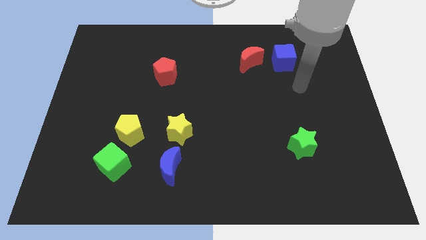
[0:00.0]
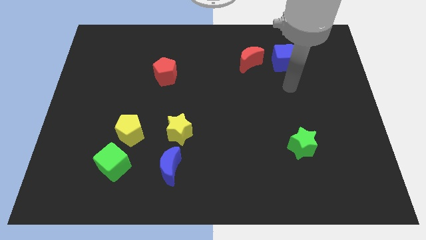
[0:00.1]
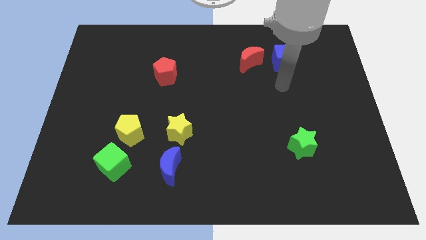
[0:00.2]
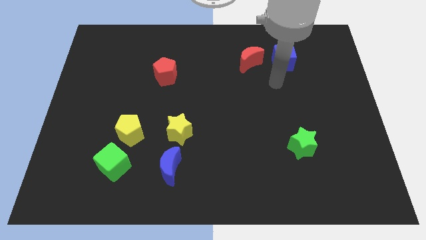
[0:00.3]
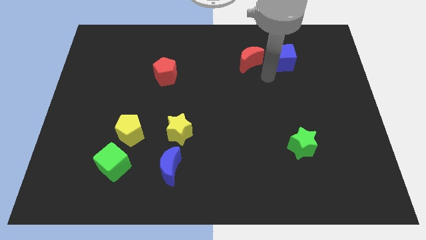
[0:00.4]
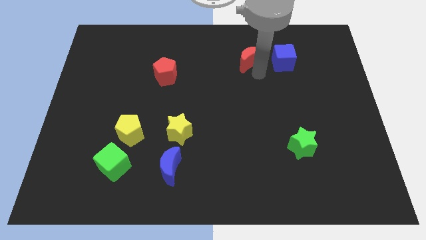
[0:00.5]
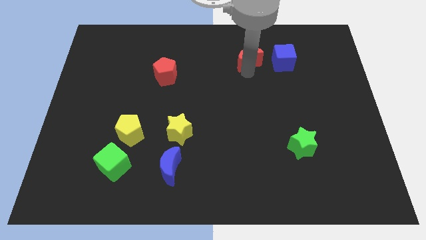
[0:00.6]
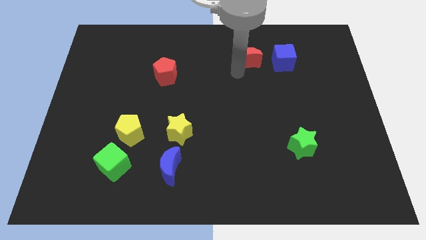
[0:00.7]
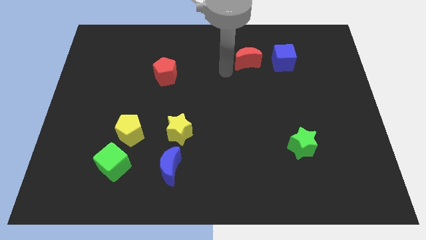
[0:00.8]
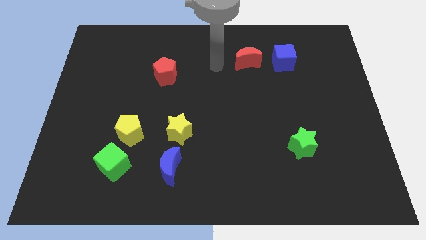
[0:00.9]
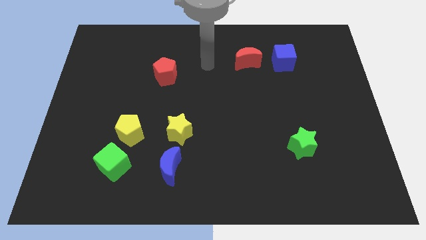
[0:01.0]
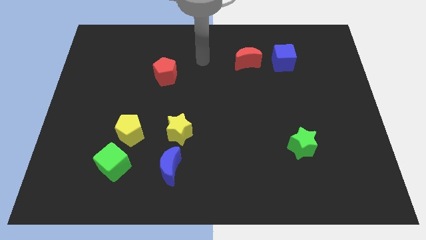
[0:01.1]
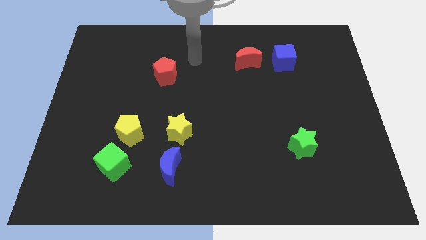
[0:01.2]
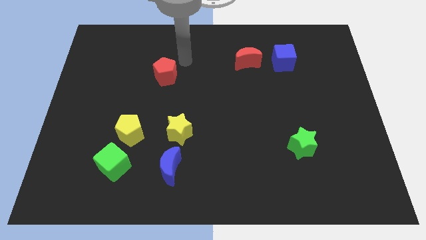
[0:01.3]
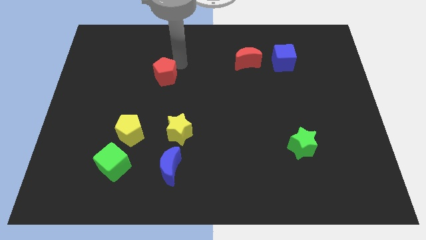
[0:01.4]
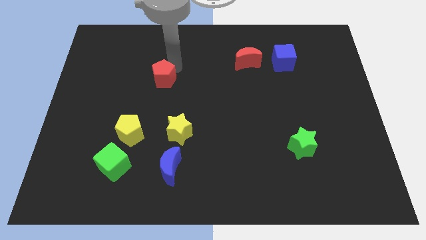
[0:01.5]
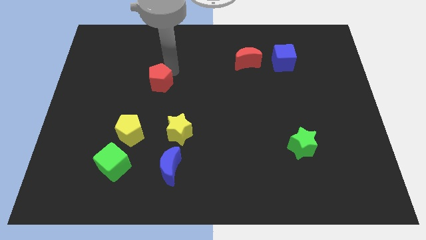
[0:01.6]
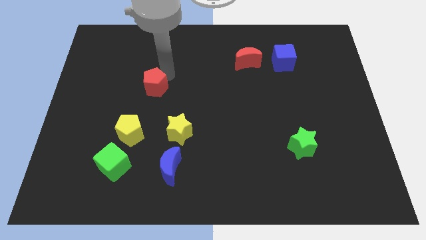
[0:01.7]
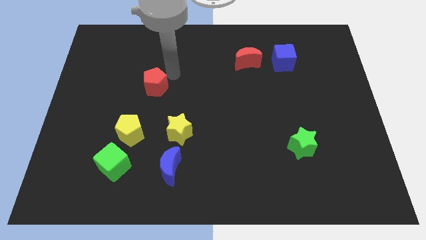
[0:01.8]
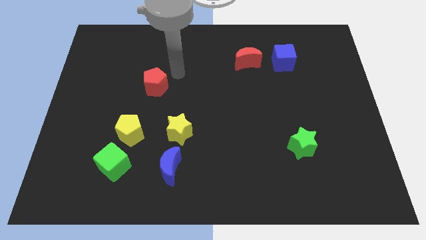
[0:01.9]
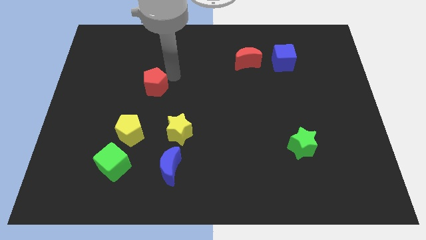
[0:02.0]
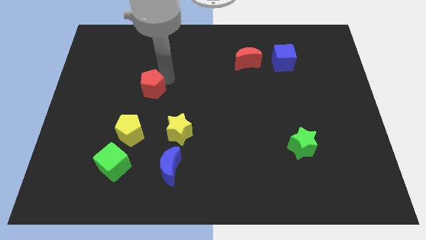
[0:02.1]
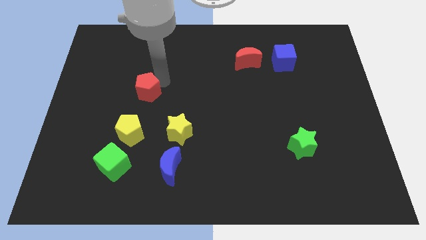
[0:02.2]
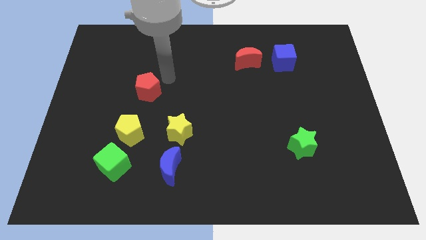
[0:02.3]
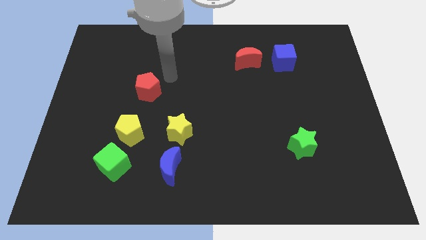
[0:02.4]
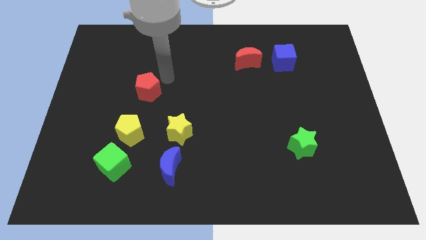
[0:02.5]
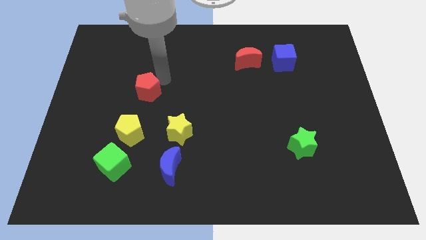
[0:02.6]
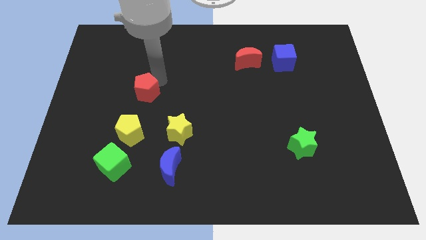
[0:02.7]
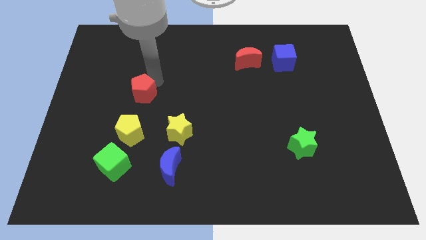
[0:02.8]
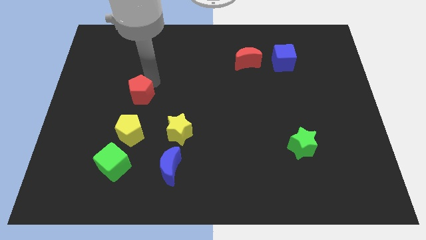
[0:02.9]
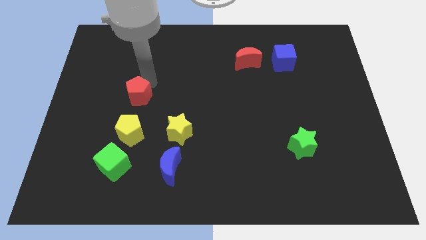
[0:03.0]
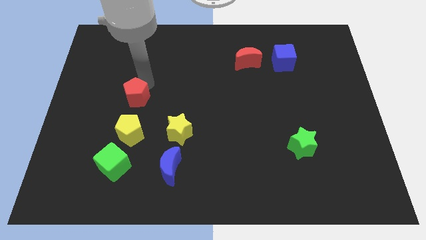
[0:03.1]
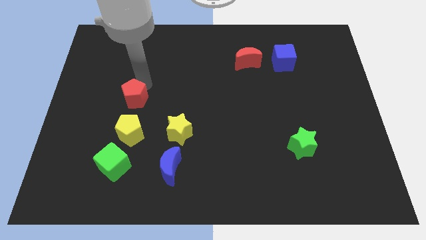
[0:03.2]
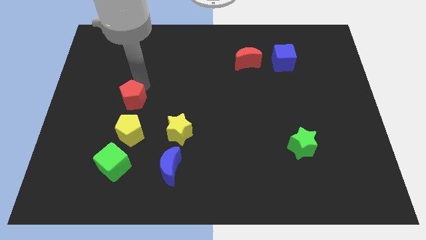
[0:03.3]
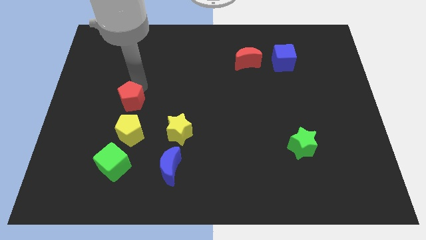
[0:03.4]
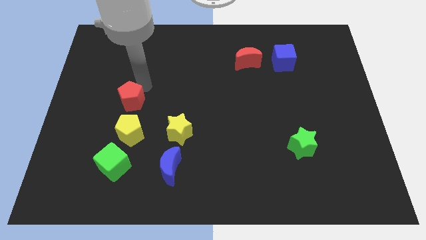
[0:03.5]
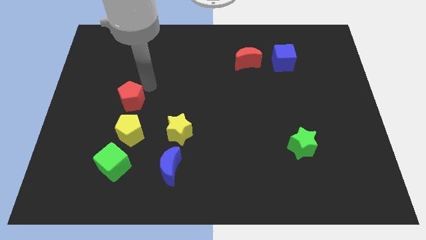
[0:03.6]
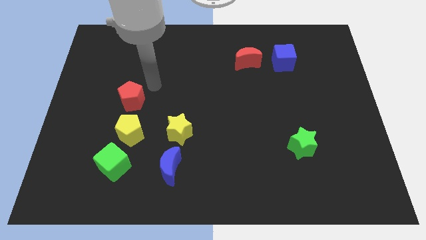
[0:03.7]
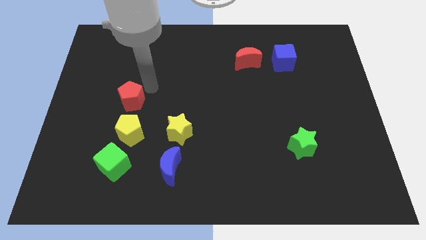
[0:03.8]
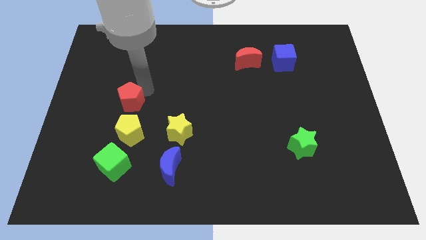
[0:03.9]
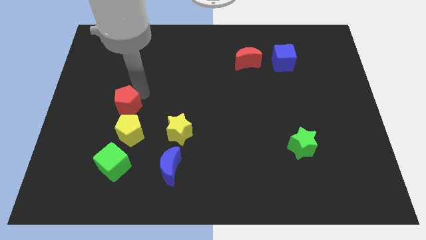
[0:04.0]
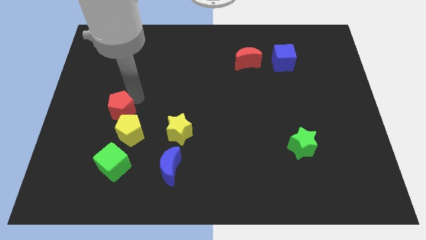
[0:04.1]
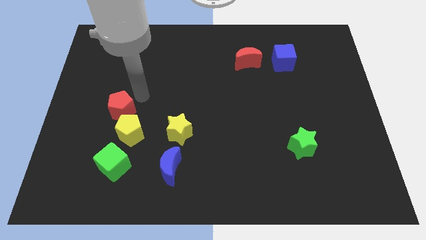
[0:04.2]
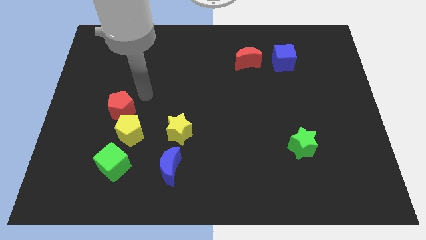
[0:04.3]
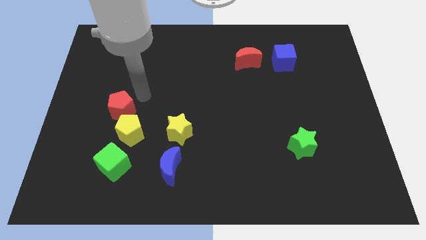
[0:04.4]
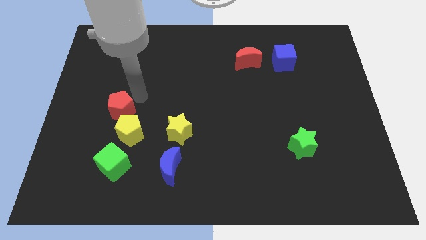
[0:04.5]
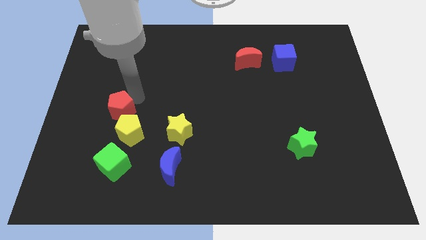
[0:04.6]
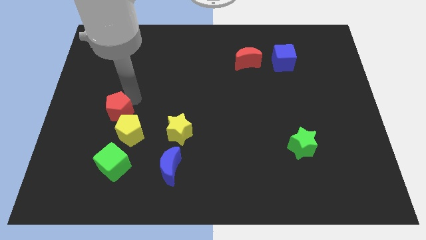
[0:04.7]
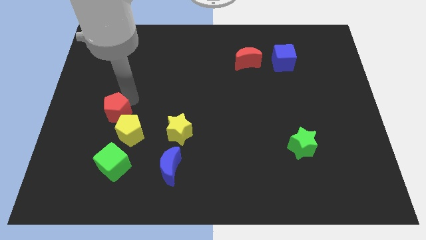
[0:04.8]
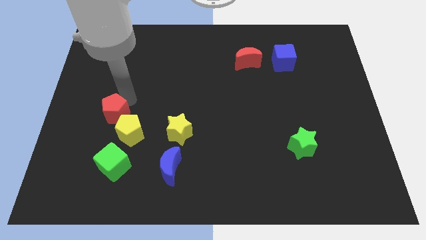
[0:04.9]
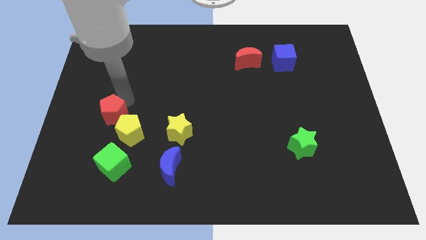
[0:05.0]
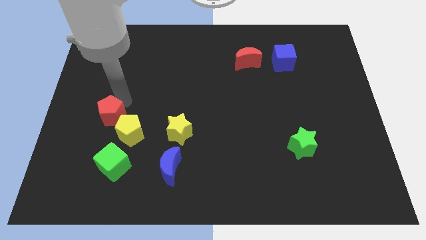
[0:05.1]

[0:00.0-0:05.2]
slide the red pentagon just left of the yellow pentagon

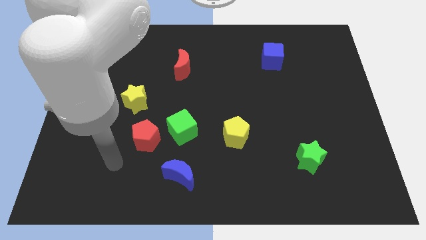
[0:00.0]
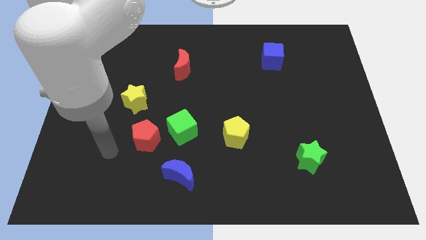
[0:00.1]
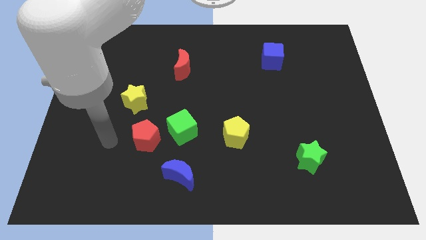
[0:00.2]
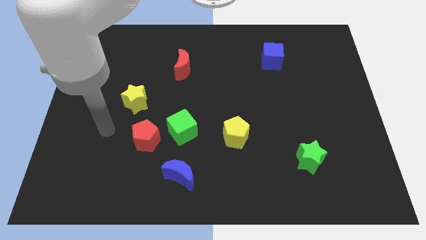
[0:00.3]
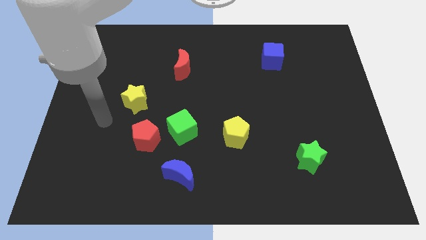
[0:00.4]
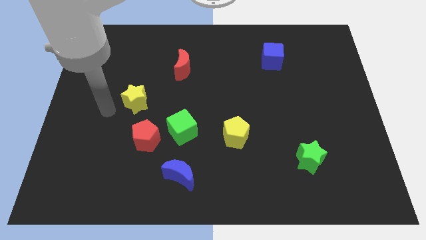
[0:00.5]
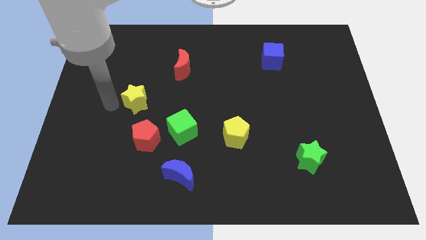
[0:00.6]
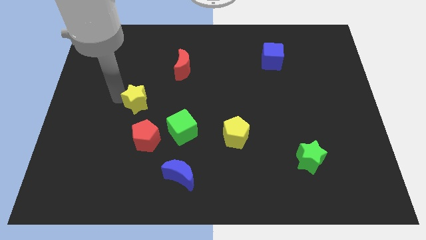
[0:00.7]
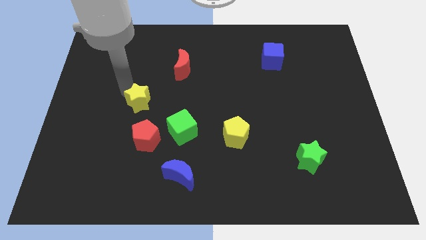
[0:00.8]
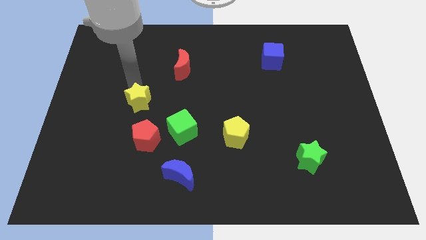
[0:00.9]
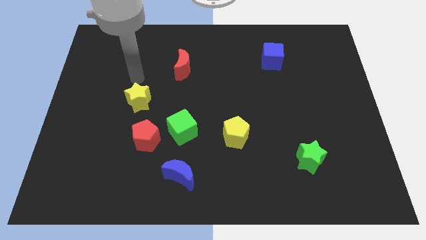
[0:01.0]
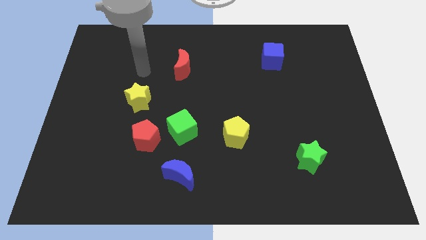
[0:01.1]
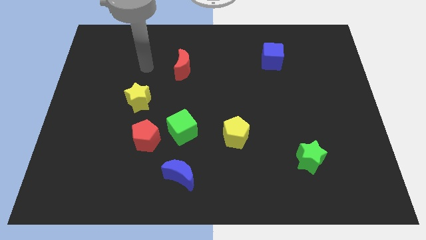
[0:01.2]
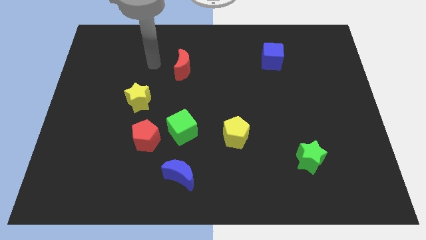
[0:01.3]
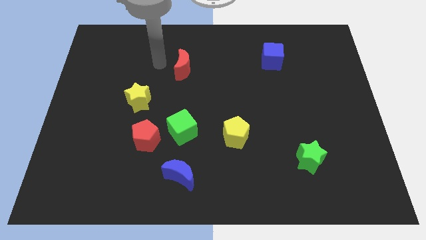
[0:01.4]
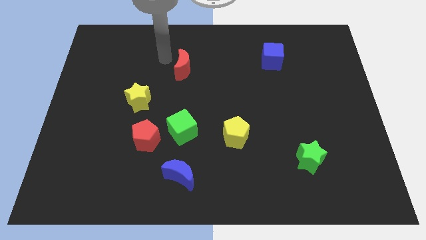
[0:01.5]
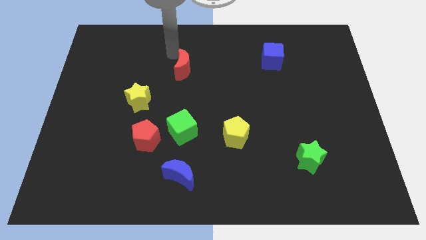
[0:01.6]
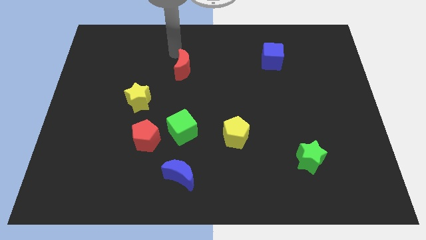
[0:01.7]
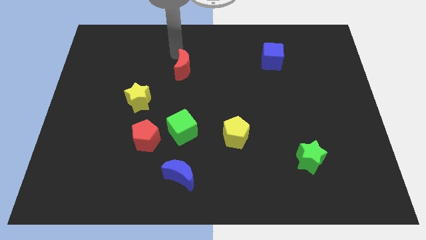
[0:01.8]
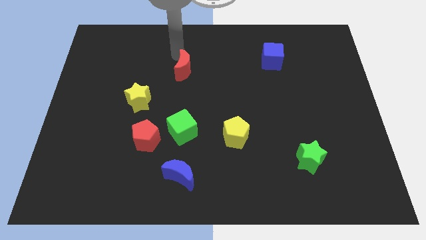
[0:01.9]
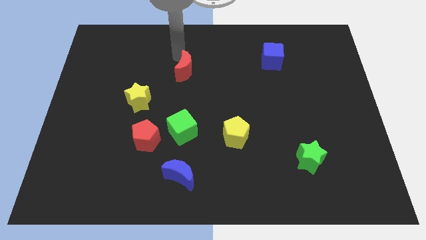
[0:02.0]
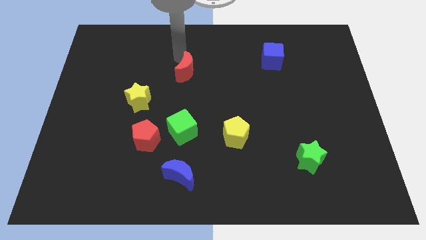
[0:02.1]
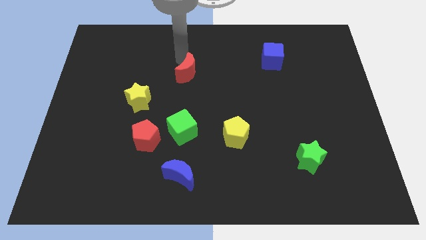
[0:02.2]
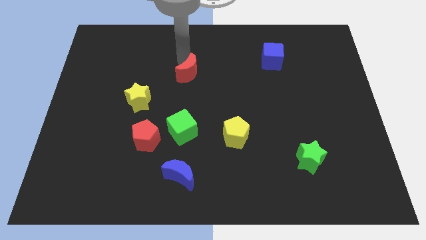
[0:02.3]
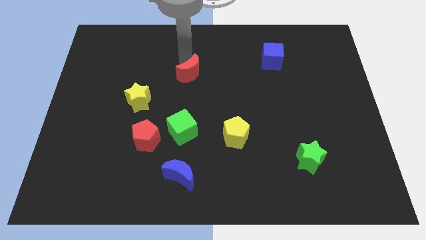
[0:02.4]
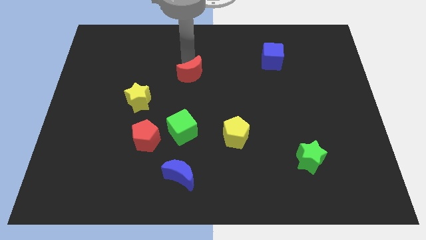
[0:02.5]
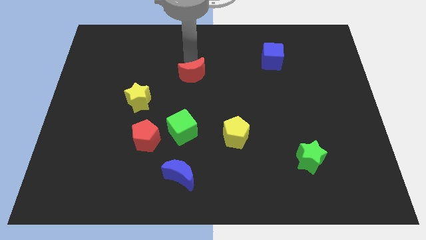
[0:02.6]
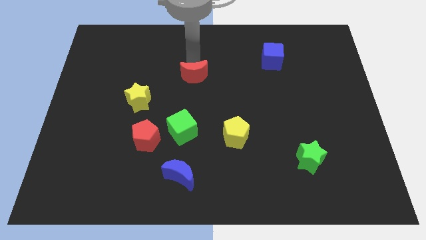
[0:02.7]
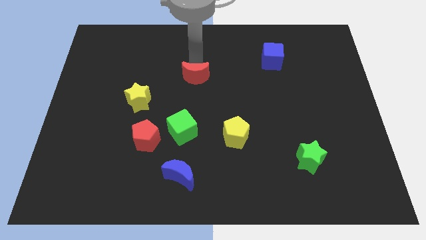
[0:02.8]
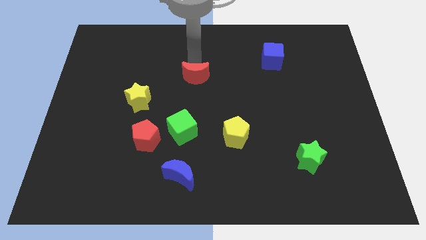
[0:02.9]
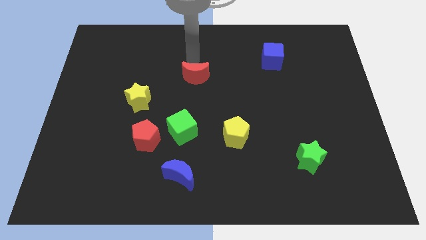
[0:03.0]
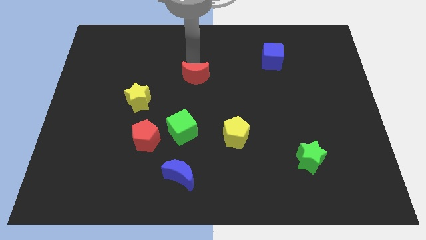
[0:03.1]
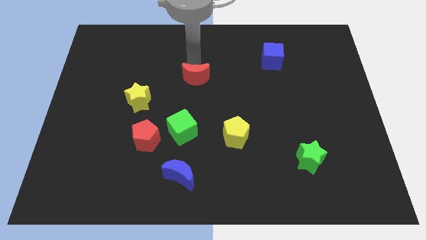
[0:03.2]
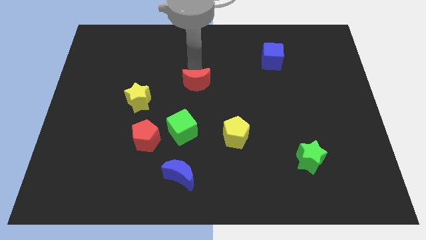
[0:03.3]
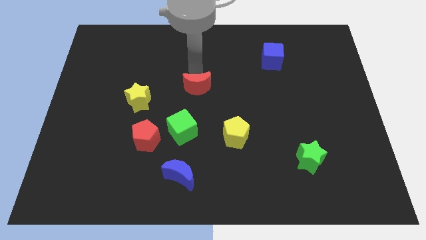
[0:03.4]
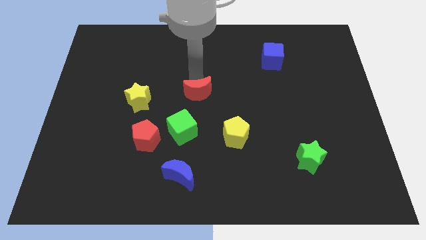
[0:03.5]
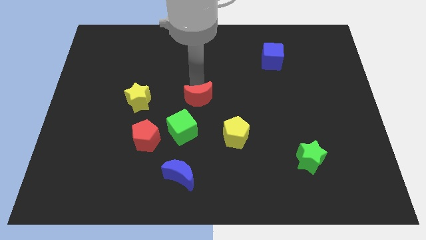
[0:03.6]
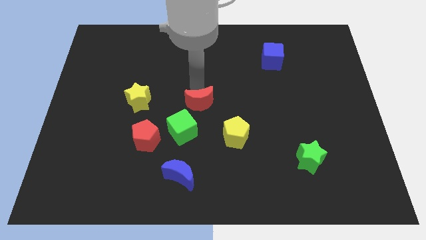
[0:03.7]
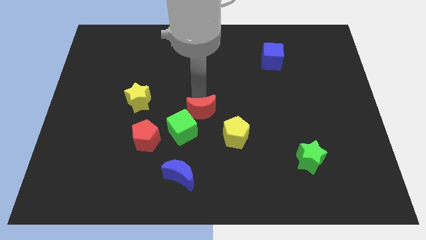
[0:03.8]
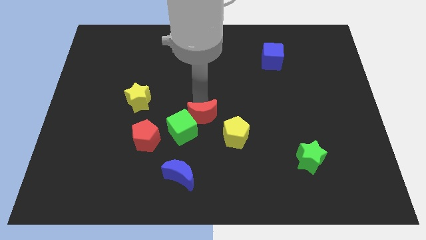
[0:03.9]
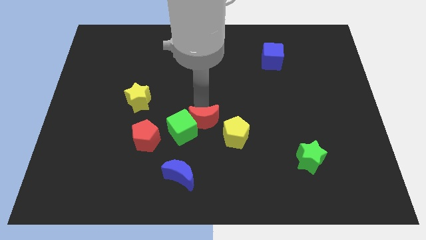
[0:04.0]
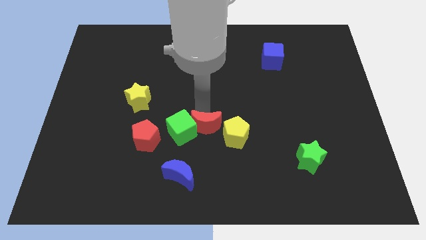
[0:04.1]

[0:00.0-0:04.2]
push the red moon diagonally down and to the right of the green cube
